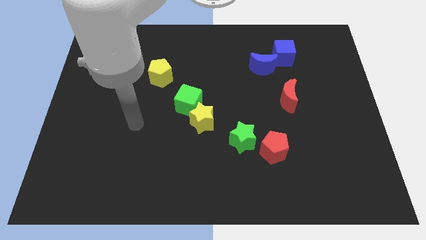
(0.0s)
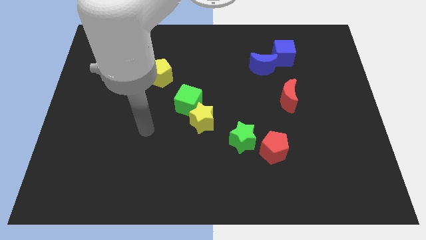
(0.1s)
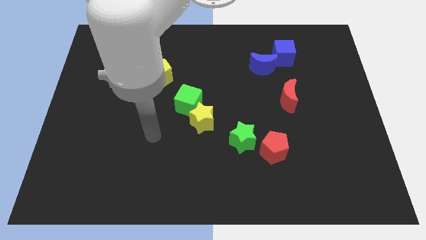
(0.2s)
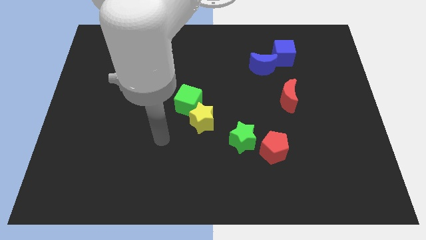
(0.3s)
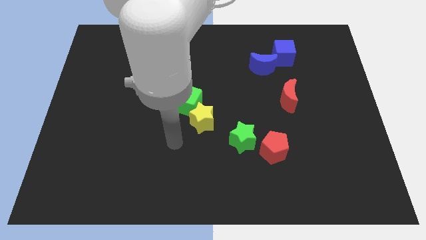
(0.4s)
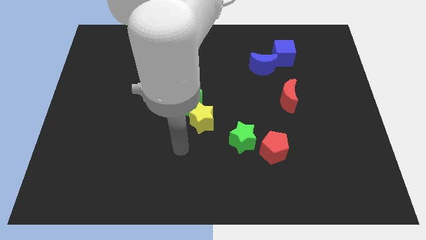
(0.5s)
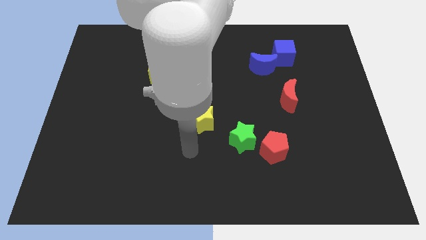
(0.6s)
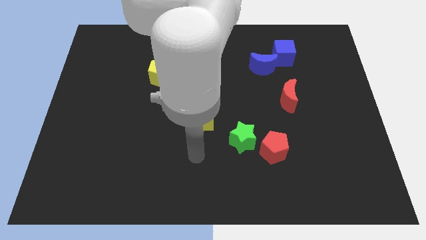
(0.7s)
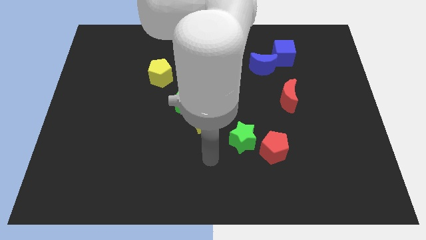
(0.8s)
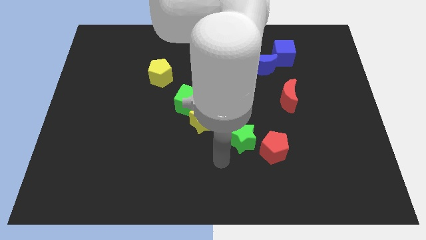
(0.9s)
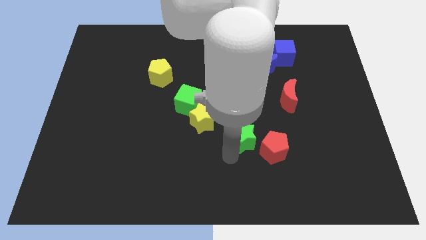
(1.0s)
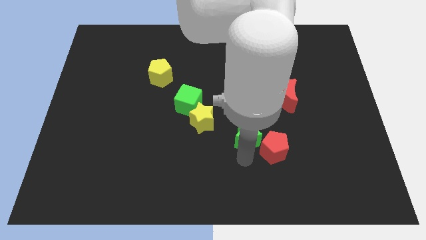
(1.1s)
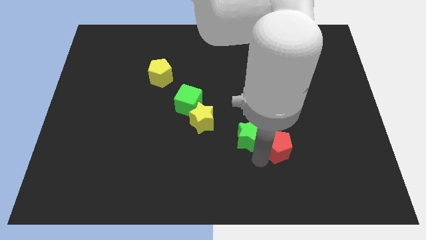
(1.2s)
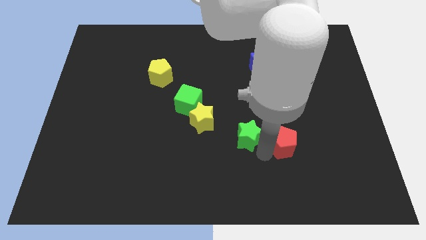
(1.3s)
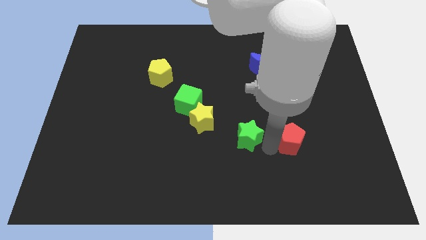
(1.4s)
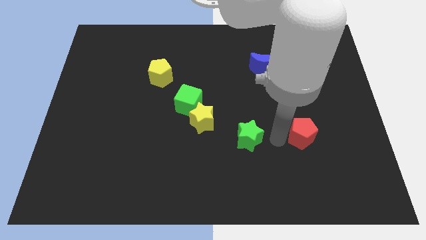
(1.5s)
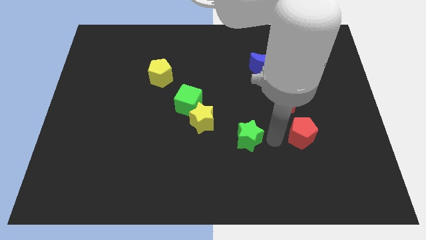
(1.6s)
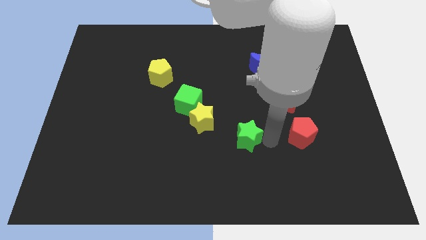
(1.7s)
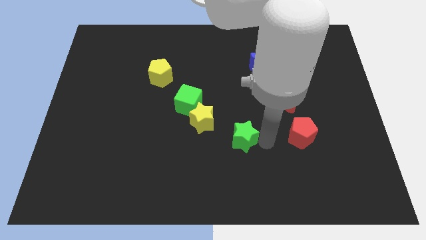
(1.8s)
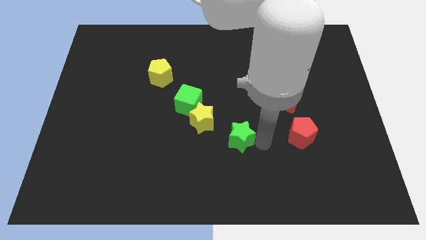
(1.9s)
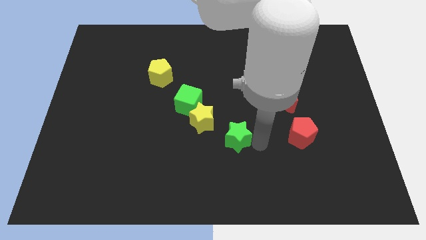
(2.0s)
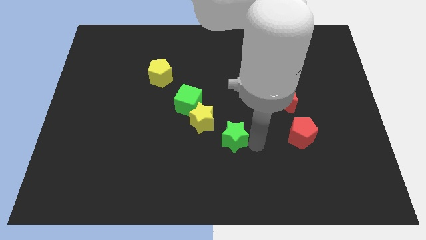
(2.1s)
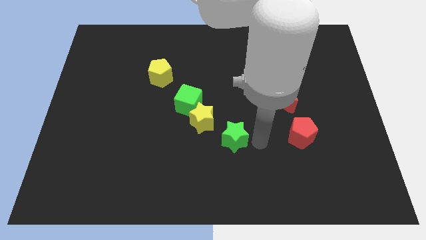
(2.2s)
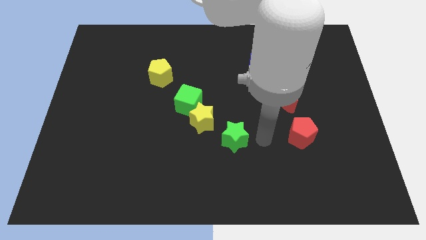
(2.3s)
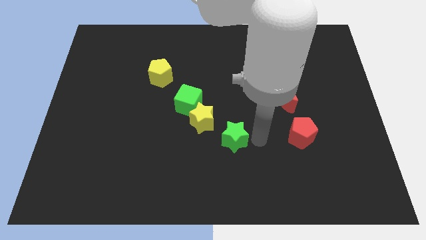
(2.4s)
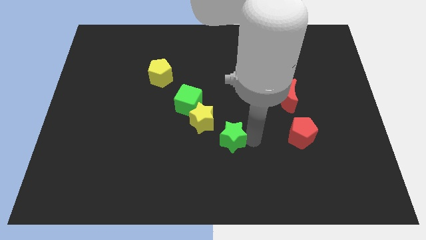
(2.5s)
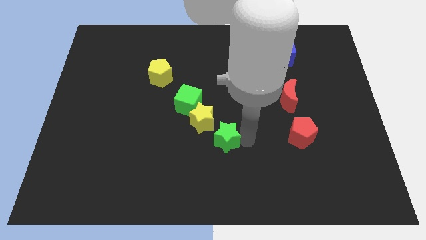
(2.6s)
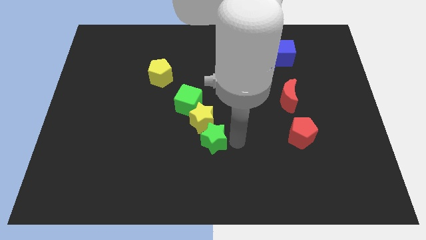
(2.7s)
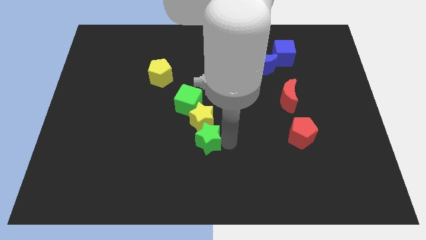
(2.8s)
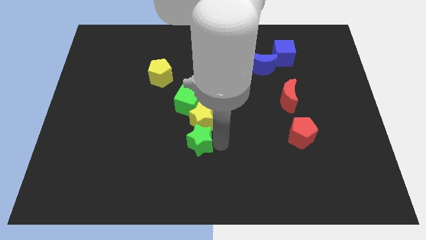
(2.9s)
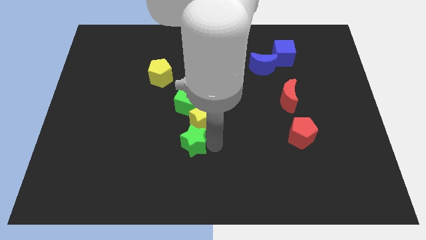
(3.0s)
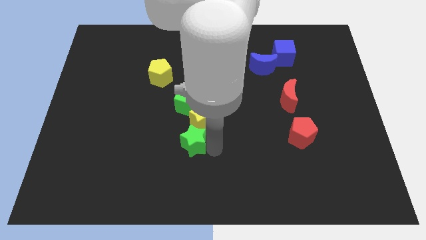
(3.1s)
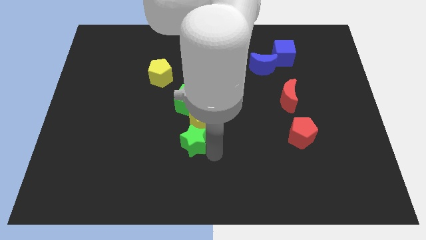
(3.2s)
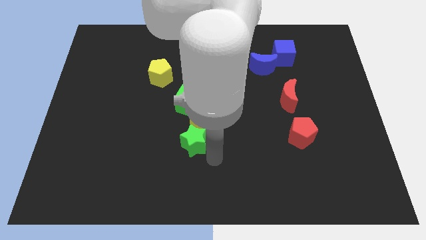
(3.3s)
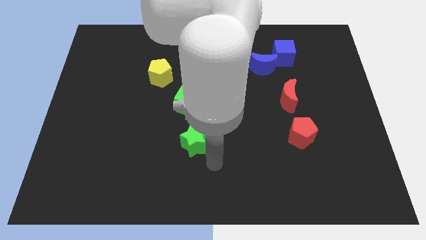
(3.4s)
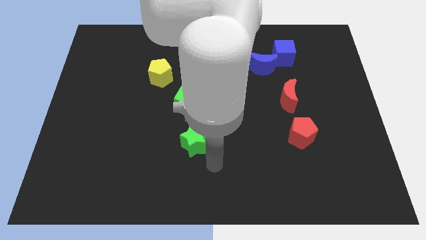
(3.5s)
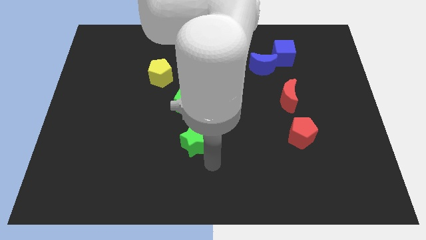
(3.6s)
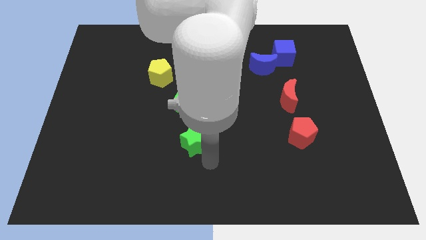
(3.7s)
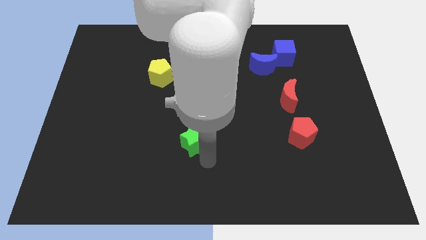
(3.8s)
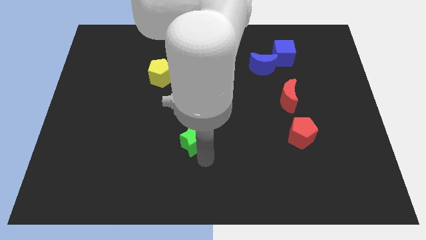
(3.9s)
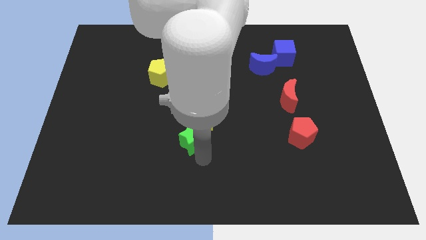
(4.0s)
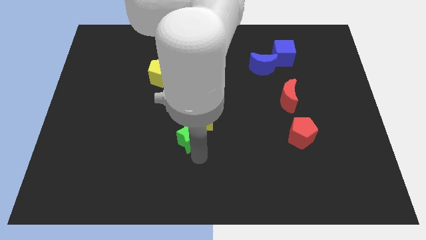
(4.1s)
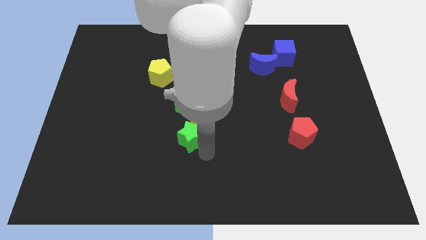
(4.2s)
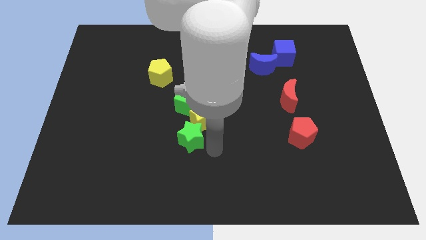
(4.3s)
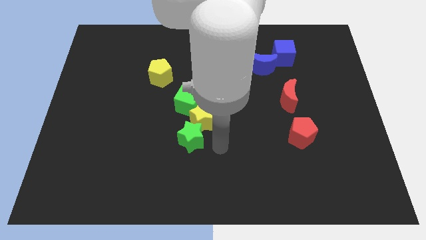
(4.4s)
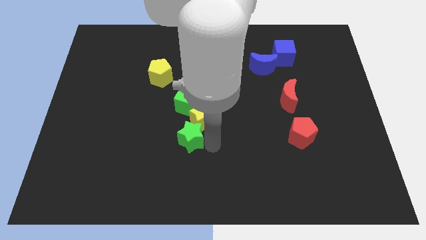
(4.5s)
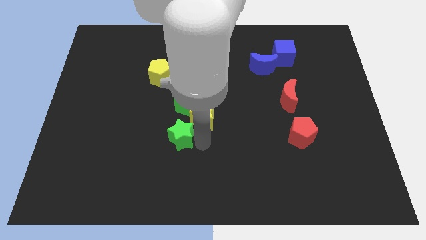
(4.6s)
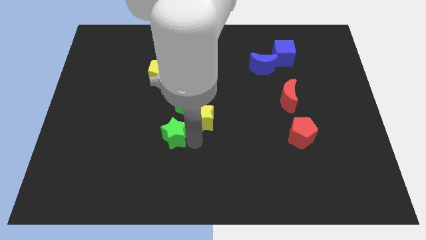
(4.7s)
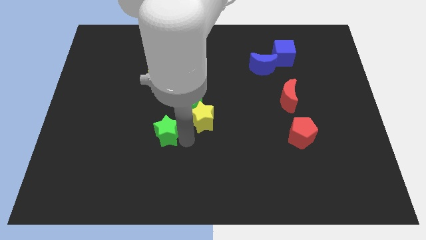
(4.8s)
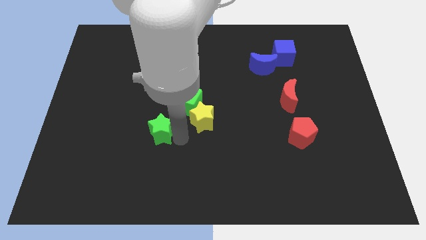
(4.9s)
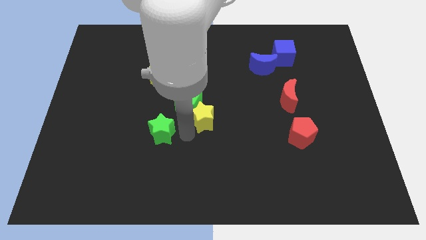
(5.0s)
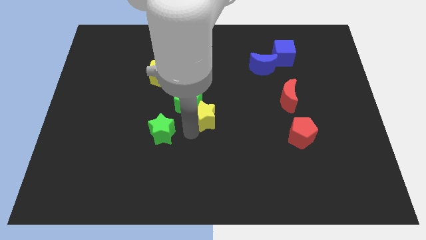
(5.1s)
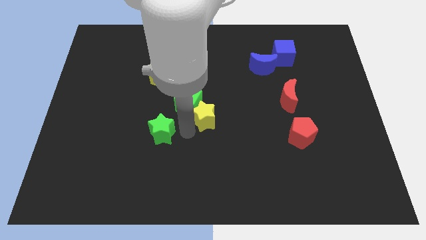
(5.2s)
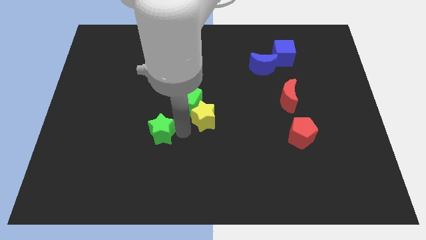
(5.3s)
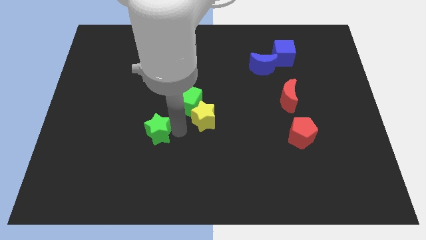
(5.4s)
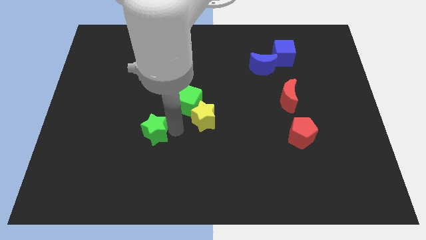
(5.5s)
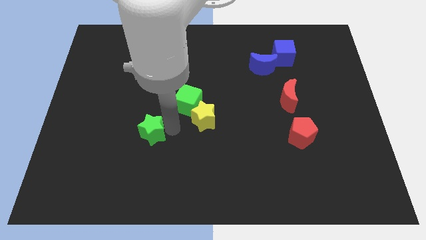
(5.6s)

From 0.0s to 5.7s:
slide the green star to the left

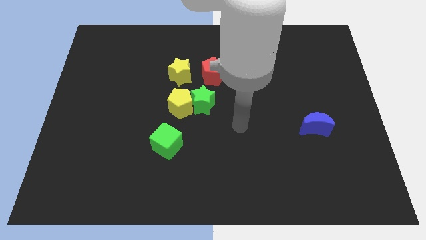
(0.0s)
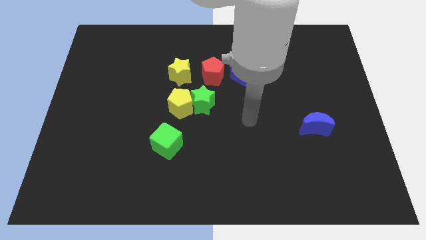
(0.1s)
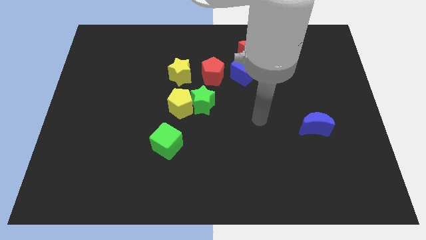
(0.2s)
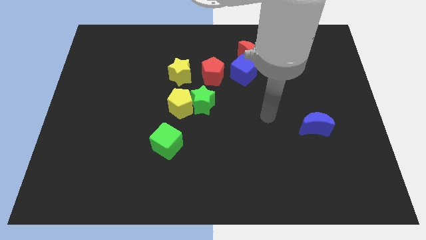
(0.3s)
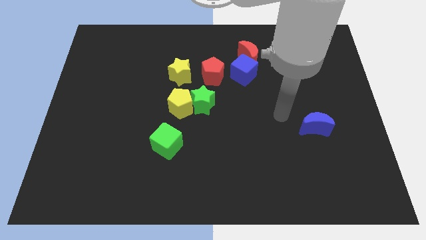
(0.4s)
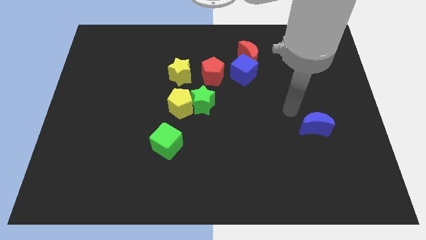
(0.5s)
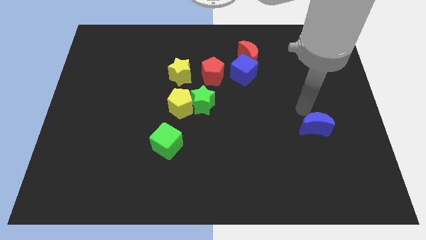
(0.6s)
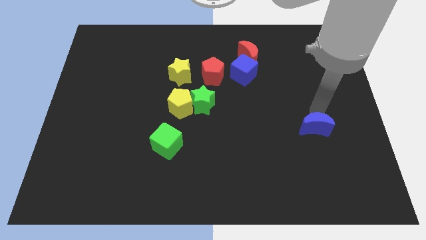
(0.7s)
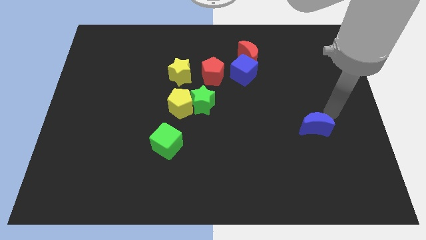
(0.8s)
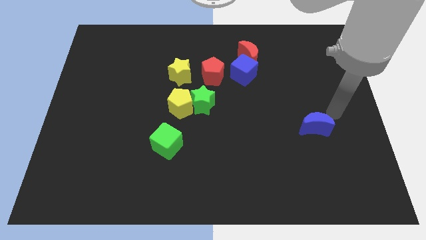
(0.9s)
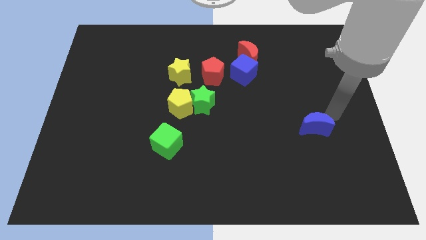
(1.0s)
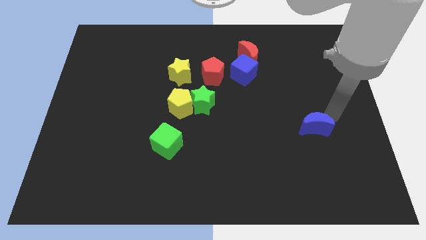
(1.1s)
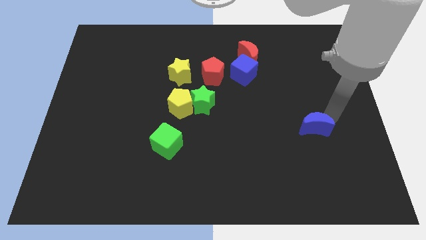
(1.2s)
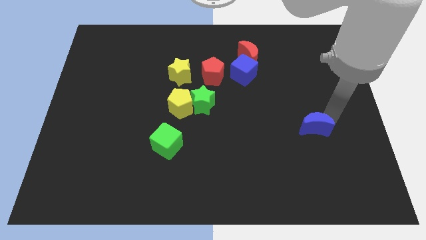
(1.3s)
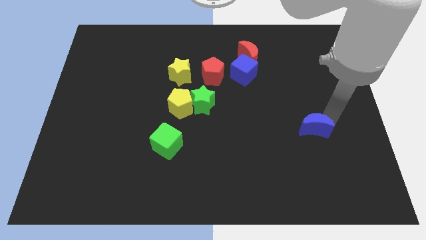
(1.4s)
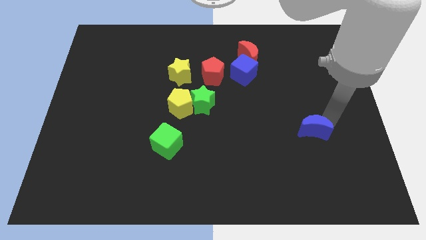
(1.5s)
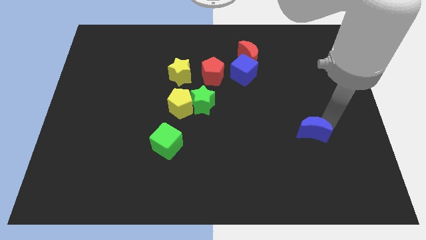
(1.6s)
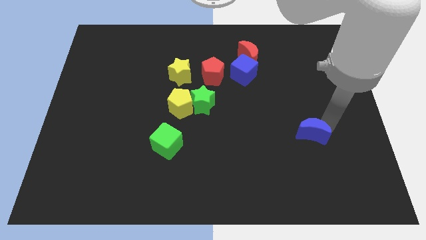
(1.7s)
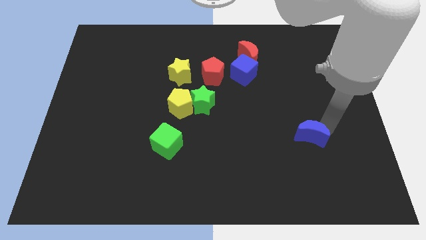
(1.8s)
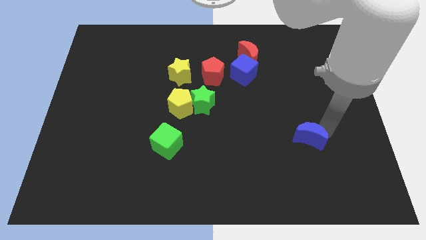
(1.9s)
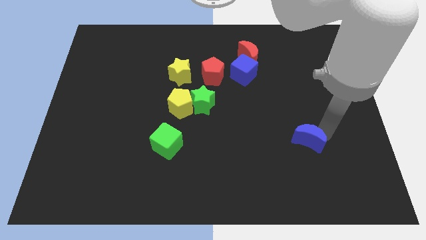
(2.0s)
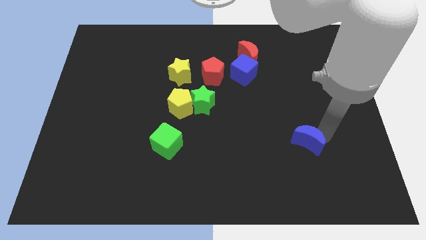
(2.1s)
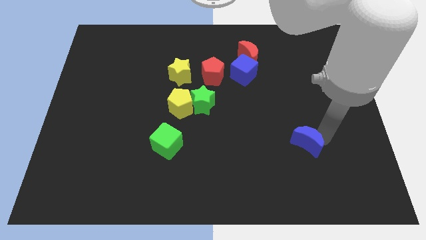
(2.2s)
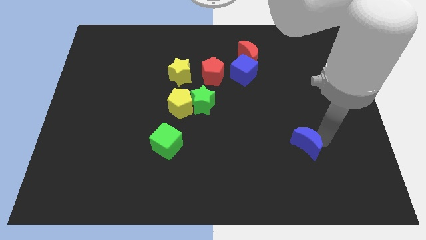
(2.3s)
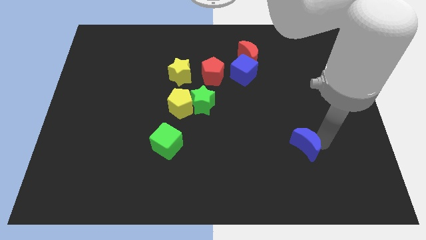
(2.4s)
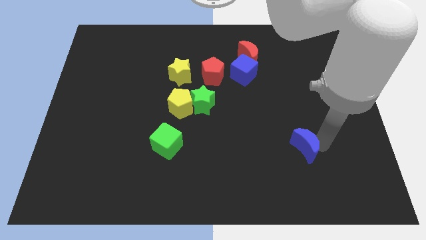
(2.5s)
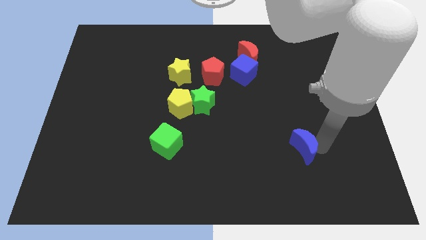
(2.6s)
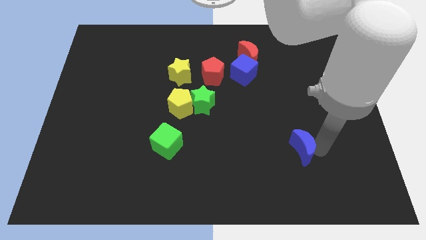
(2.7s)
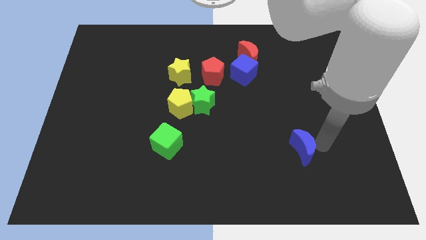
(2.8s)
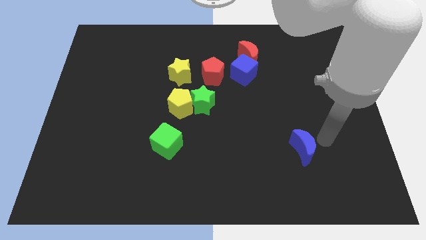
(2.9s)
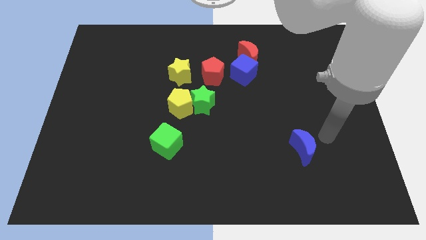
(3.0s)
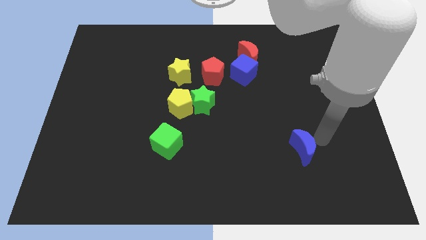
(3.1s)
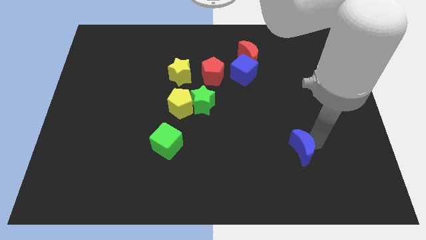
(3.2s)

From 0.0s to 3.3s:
slightly push the blue moon down and to the left
